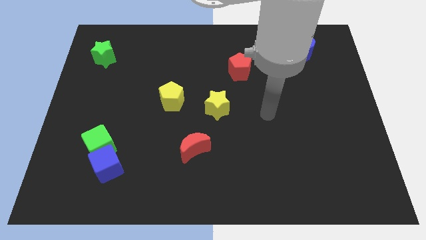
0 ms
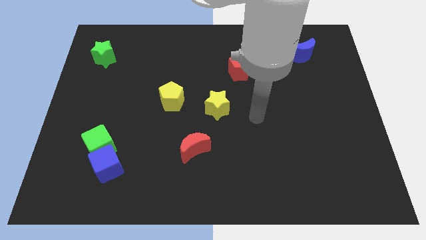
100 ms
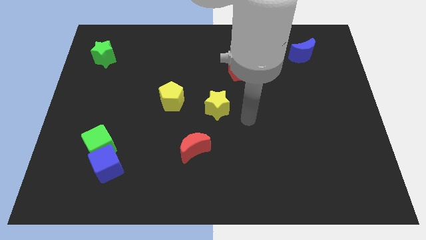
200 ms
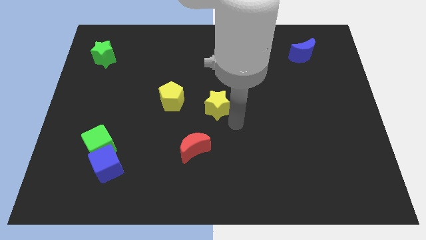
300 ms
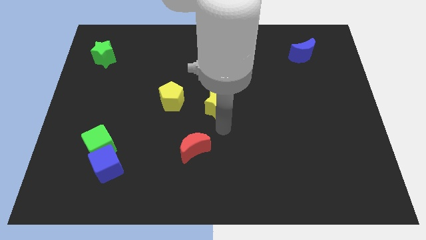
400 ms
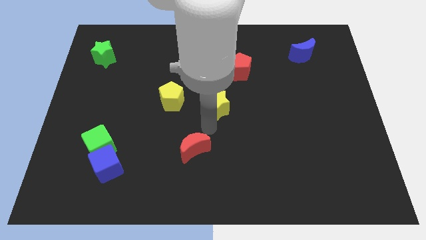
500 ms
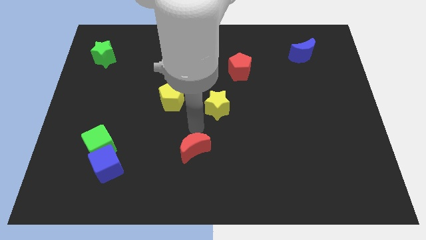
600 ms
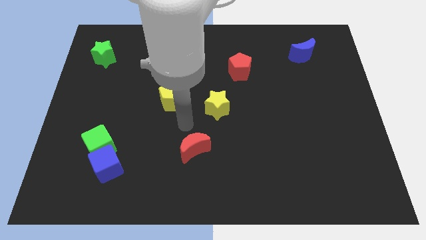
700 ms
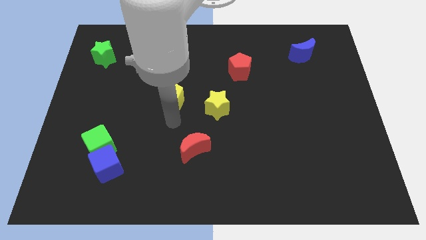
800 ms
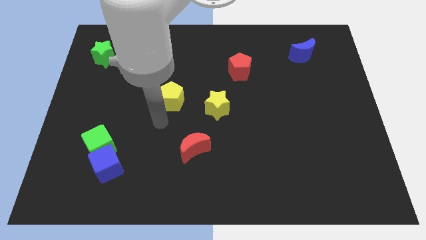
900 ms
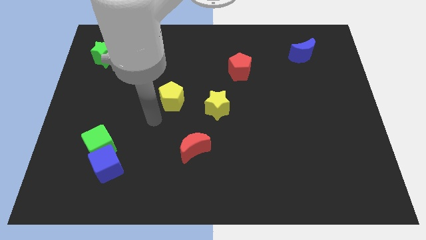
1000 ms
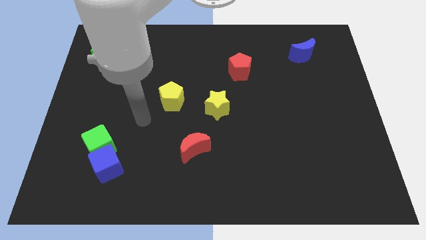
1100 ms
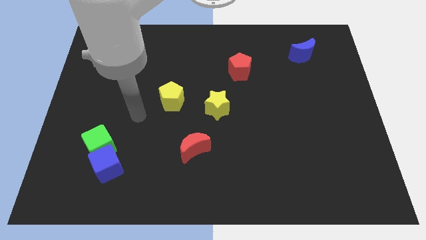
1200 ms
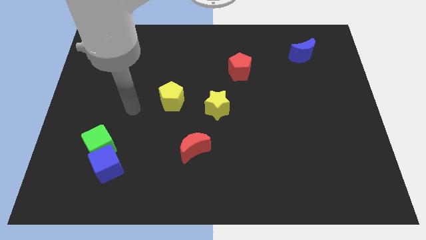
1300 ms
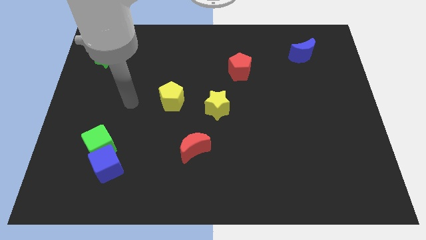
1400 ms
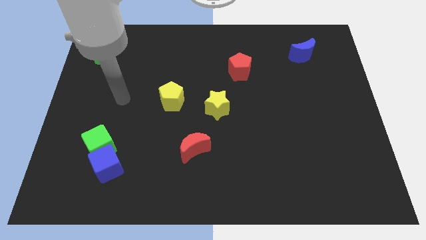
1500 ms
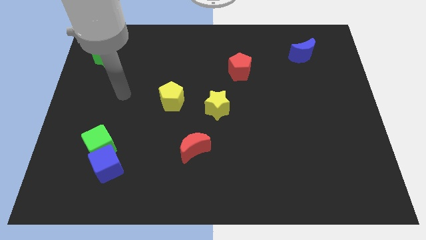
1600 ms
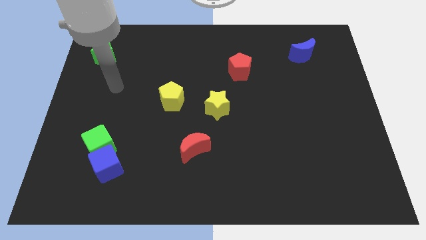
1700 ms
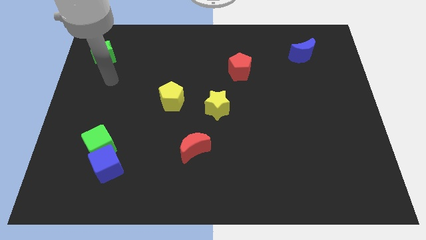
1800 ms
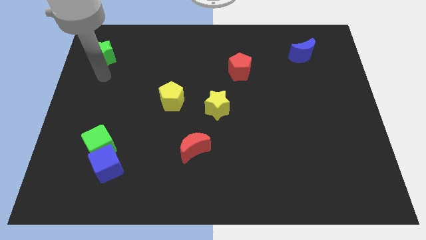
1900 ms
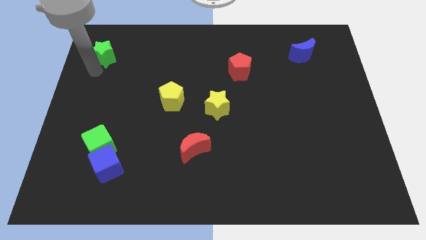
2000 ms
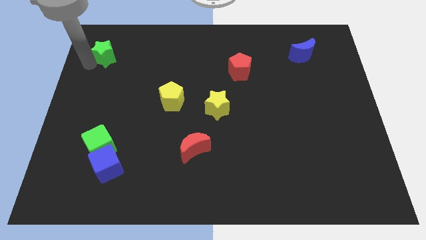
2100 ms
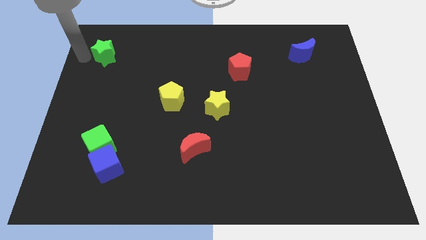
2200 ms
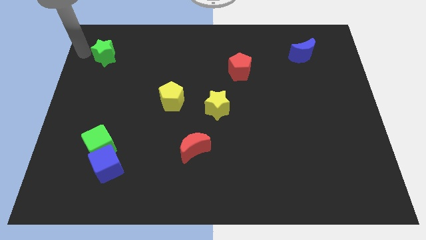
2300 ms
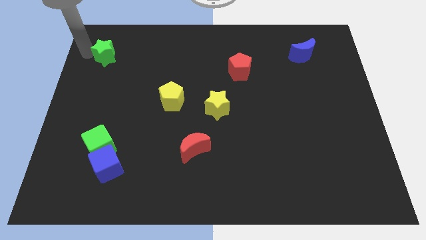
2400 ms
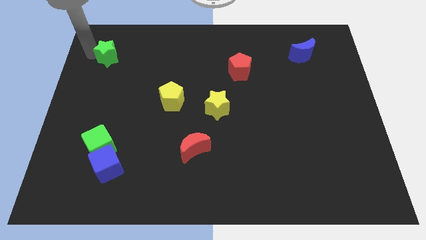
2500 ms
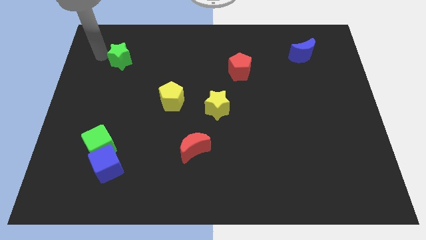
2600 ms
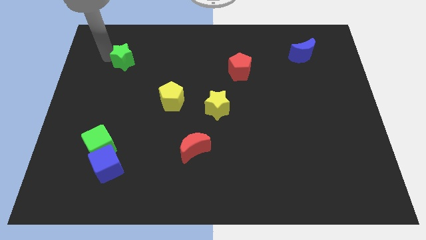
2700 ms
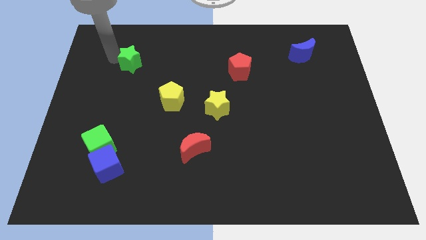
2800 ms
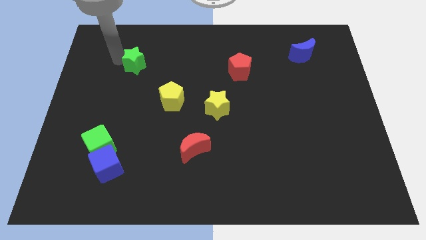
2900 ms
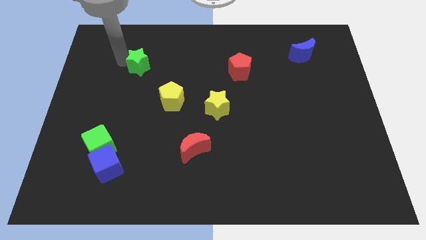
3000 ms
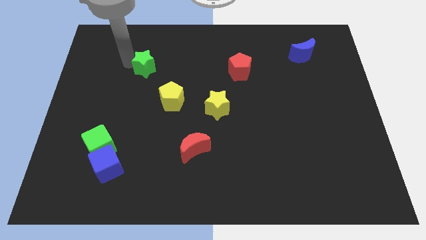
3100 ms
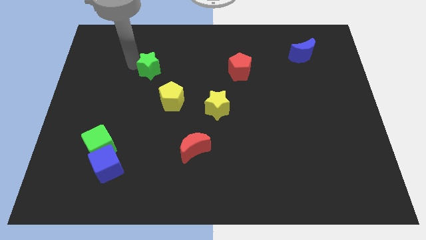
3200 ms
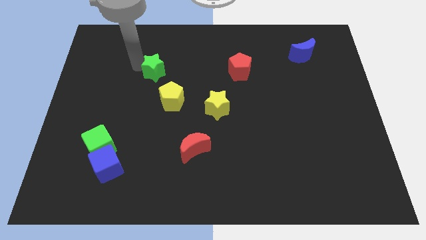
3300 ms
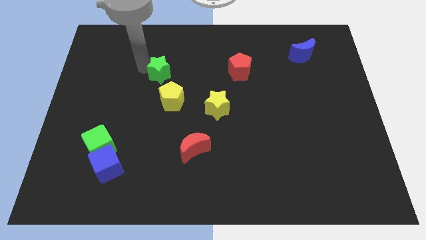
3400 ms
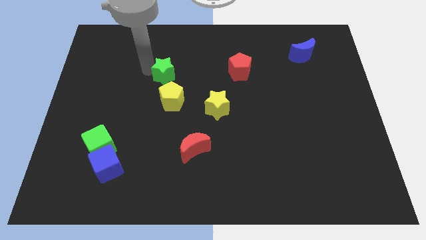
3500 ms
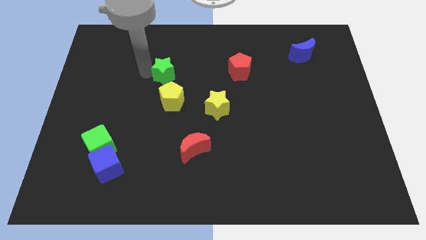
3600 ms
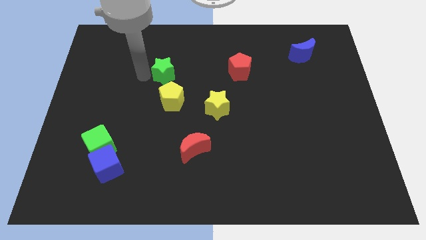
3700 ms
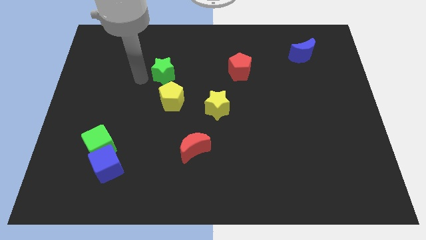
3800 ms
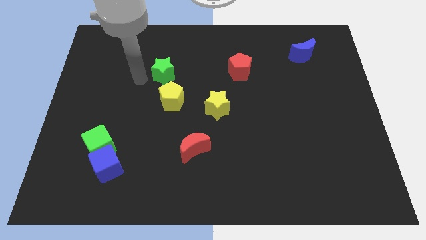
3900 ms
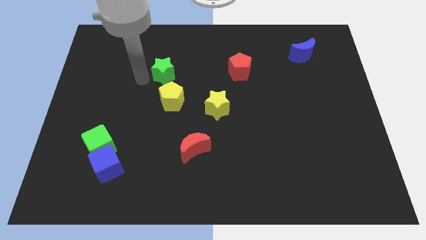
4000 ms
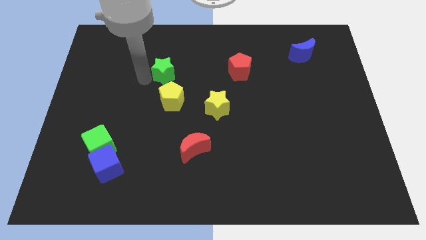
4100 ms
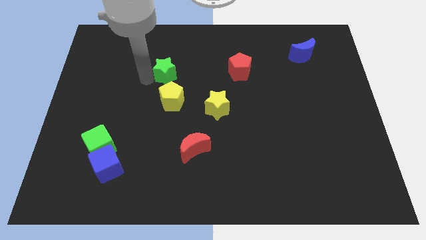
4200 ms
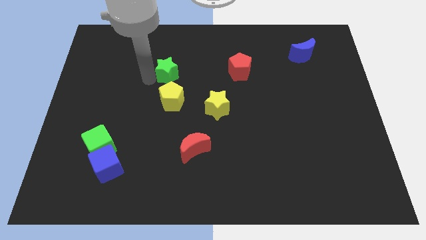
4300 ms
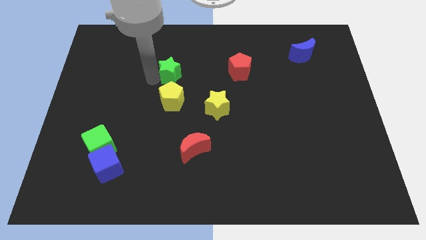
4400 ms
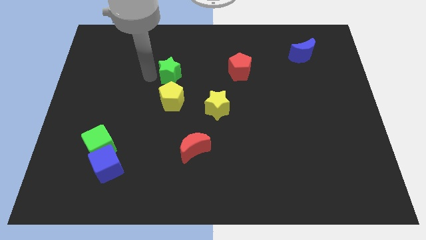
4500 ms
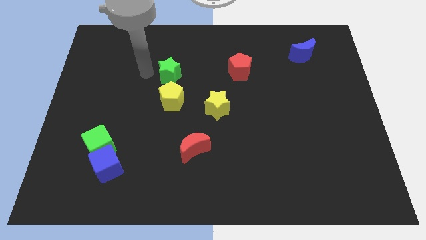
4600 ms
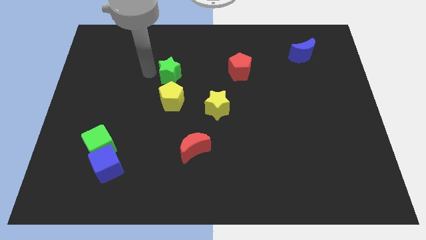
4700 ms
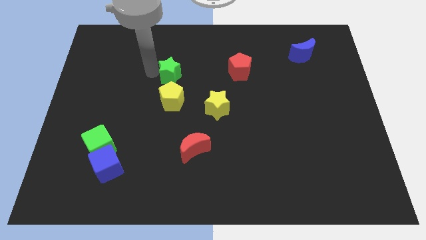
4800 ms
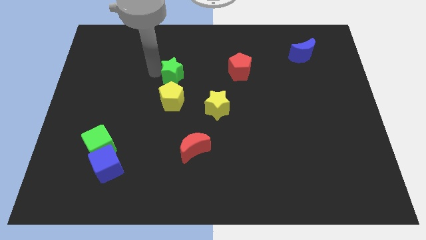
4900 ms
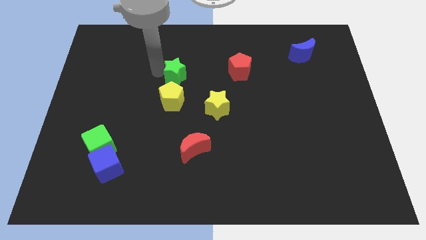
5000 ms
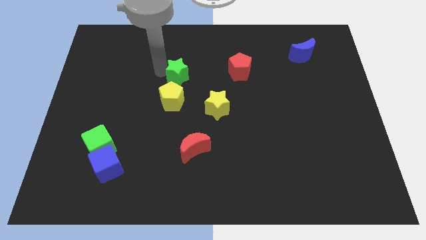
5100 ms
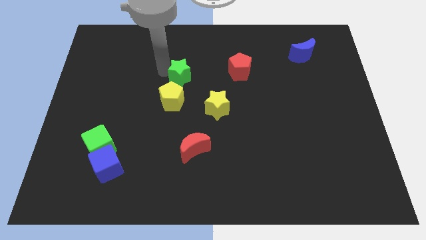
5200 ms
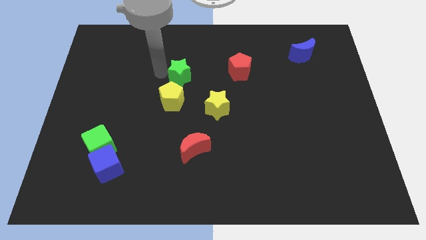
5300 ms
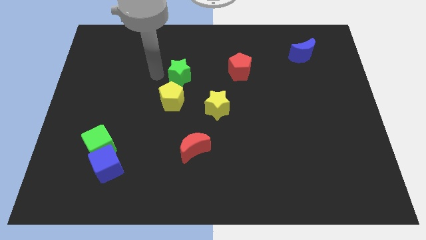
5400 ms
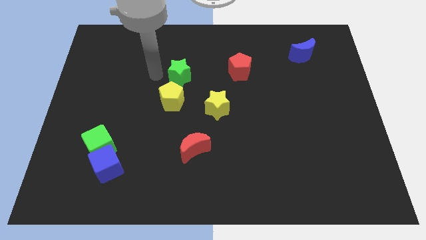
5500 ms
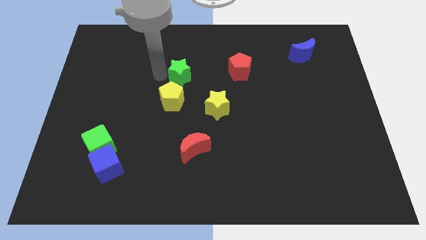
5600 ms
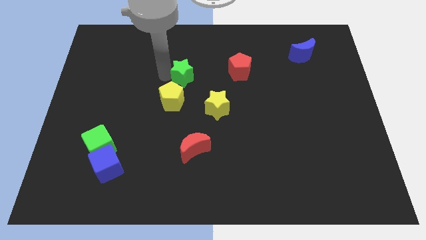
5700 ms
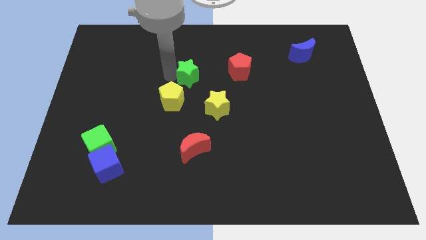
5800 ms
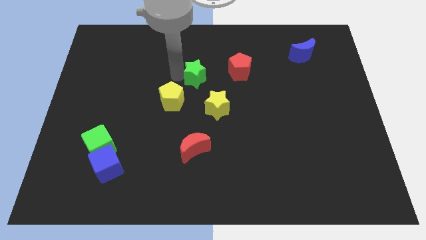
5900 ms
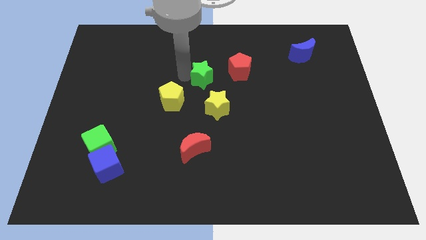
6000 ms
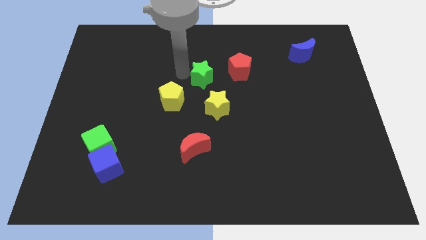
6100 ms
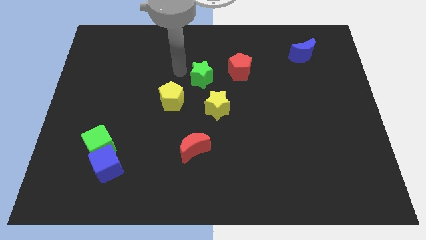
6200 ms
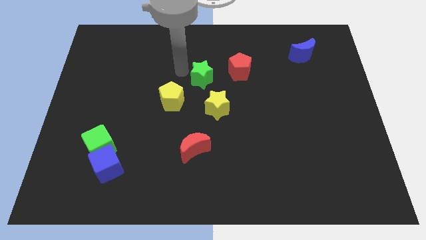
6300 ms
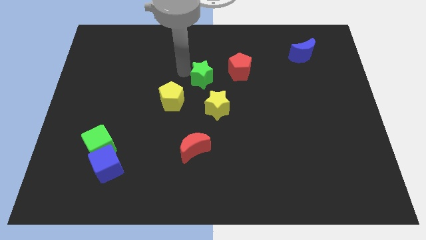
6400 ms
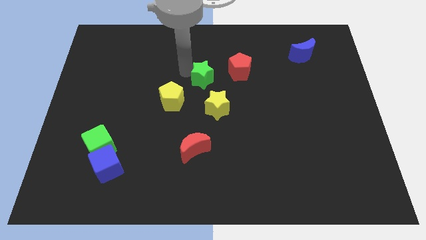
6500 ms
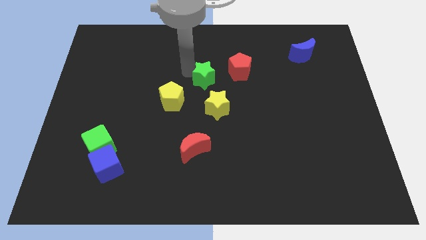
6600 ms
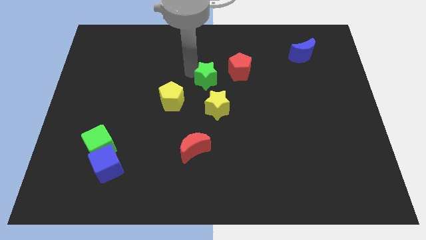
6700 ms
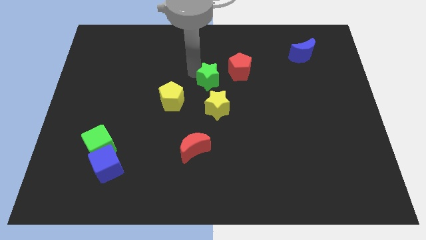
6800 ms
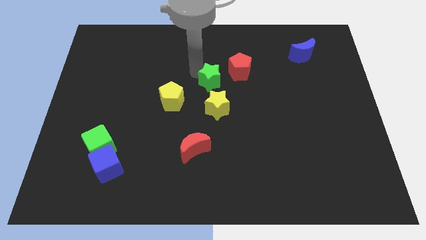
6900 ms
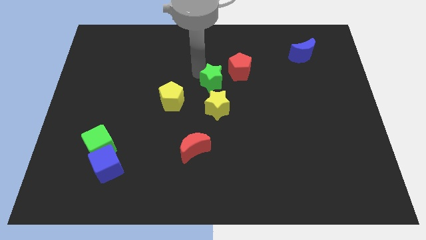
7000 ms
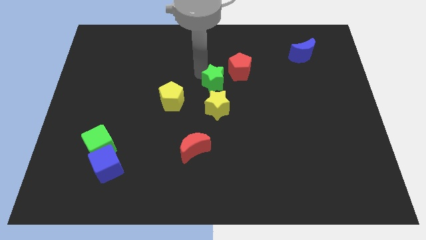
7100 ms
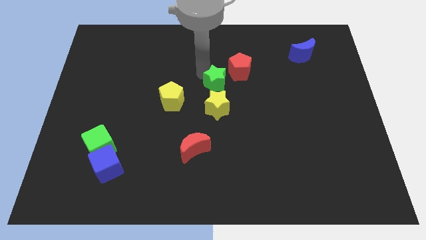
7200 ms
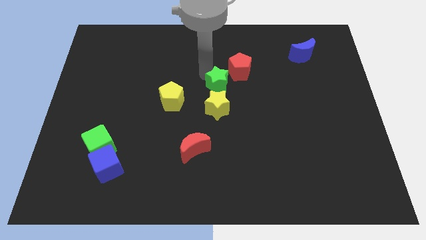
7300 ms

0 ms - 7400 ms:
push the green star just right of the yellow pentagon
